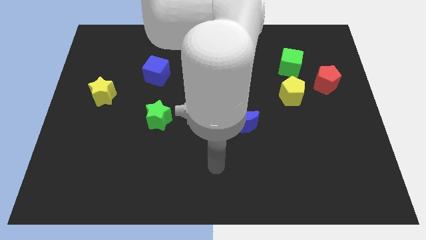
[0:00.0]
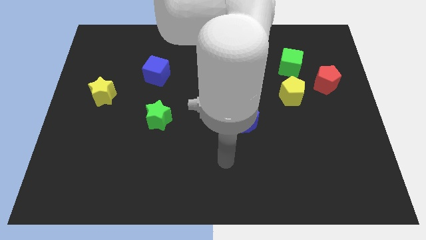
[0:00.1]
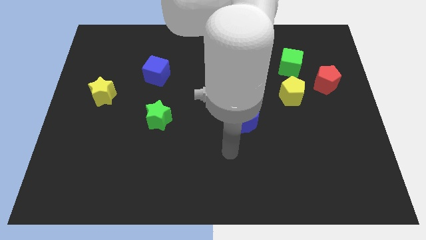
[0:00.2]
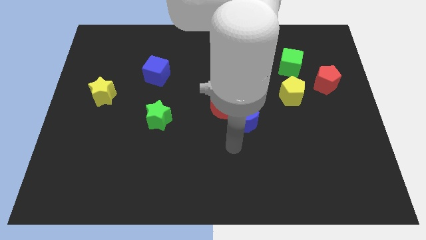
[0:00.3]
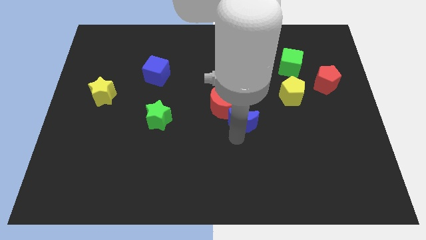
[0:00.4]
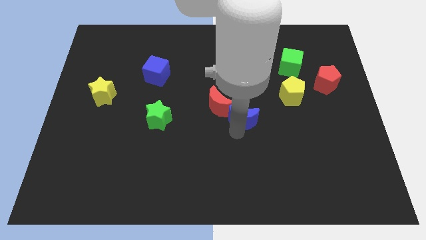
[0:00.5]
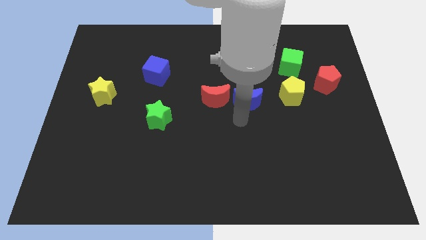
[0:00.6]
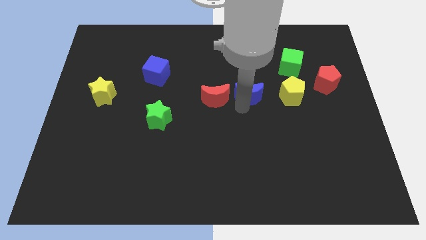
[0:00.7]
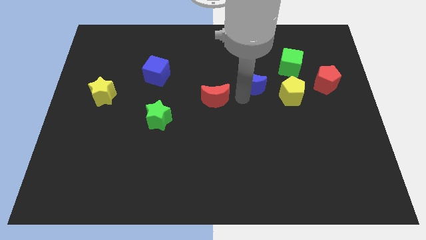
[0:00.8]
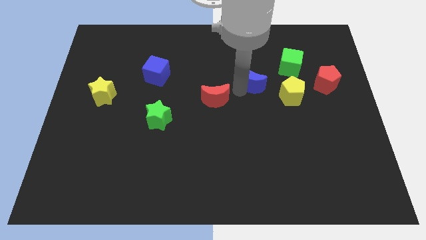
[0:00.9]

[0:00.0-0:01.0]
separate the red moon from the blue moon

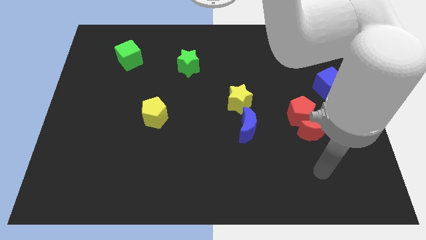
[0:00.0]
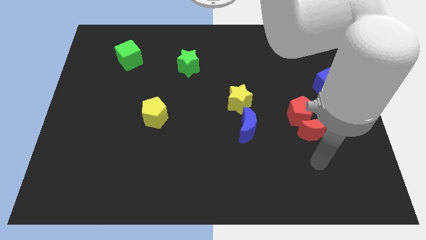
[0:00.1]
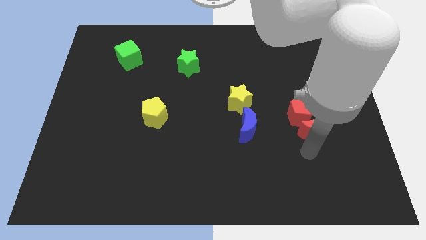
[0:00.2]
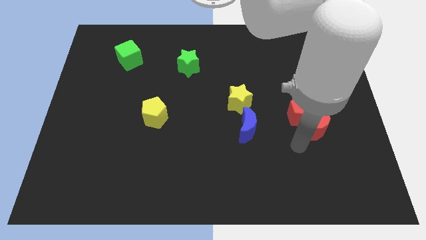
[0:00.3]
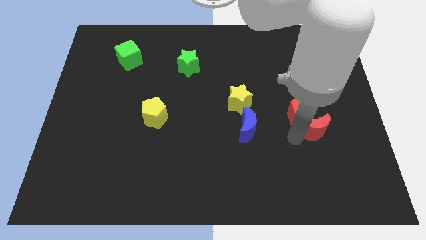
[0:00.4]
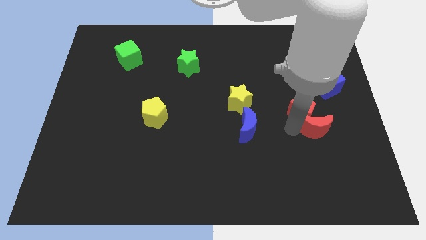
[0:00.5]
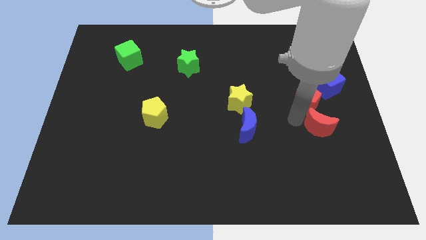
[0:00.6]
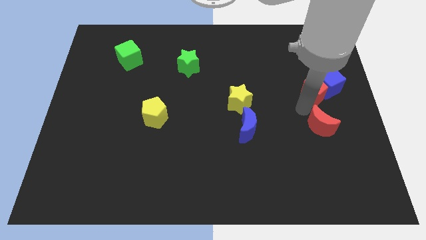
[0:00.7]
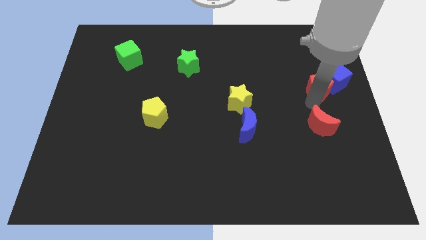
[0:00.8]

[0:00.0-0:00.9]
separate the red moon from the red pentagon

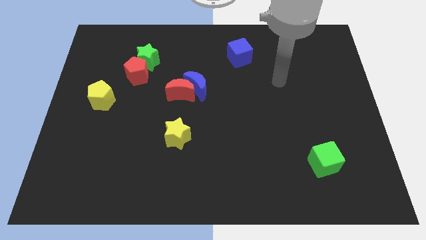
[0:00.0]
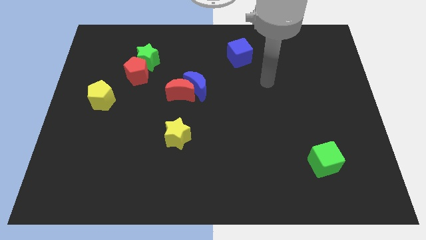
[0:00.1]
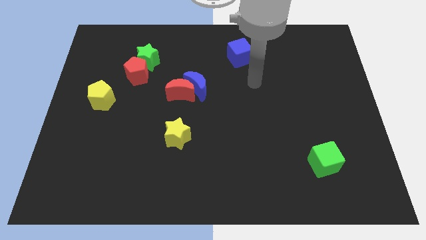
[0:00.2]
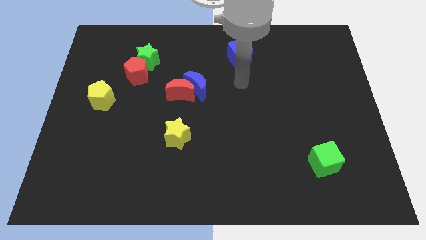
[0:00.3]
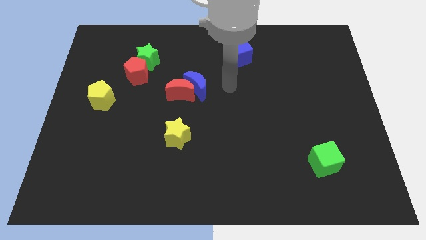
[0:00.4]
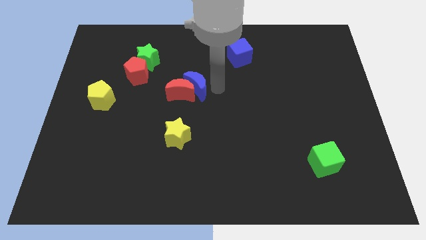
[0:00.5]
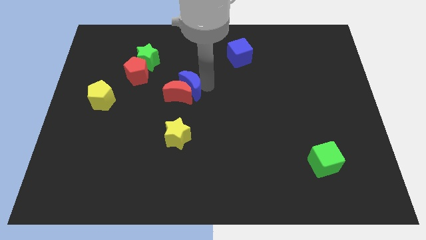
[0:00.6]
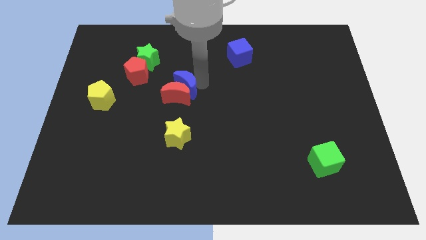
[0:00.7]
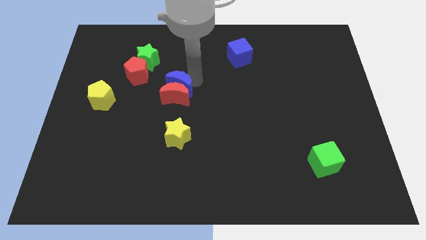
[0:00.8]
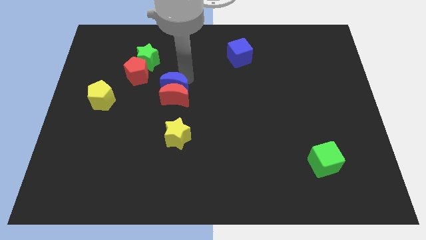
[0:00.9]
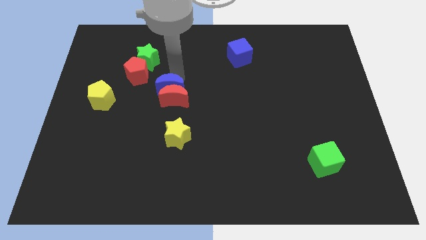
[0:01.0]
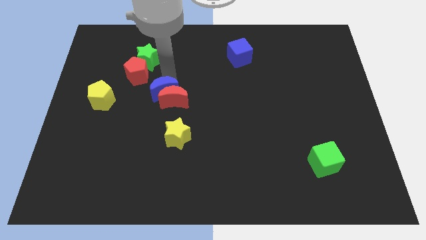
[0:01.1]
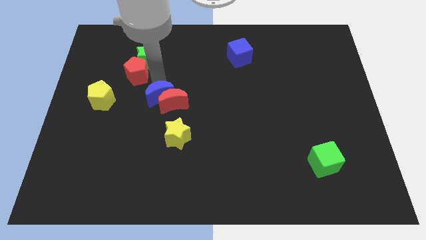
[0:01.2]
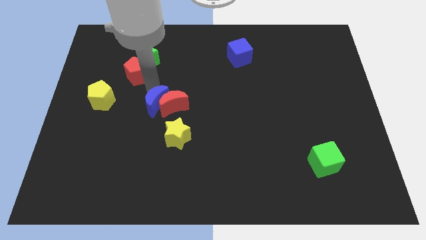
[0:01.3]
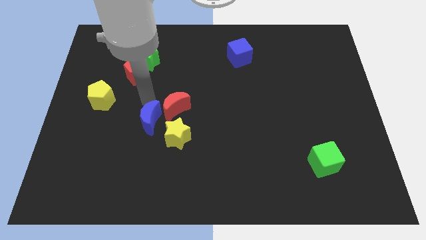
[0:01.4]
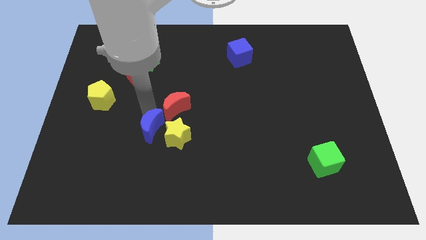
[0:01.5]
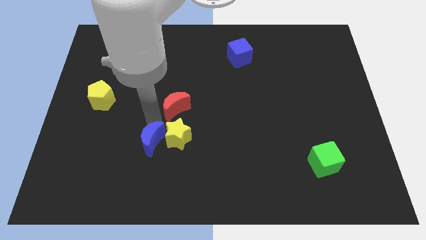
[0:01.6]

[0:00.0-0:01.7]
move the red moon away from the blue moon

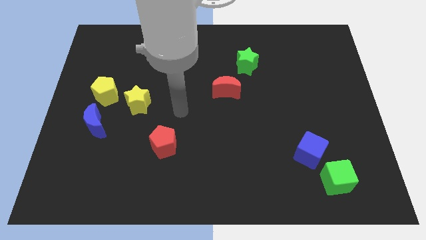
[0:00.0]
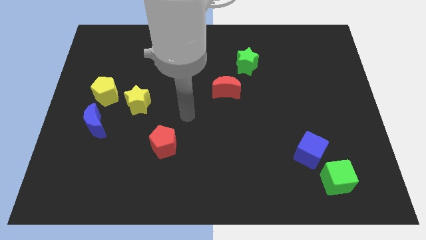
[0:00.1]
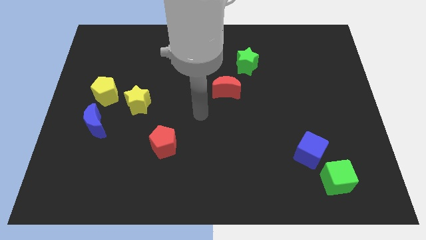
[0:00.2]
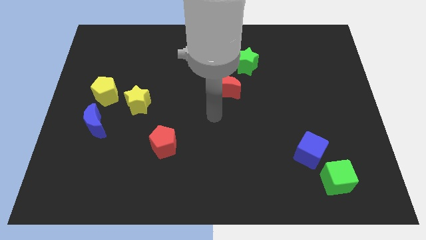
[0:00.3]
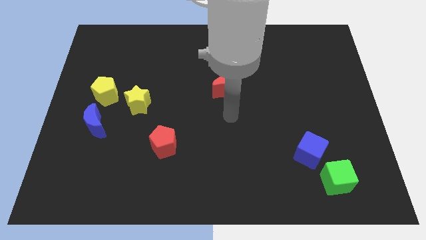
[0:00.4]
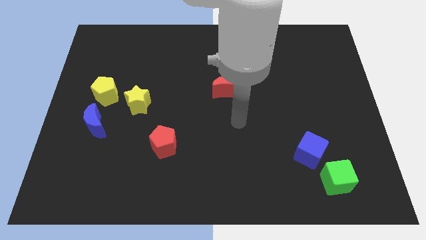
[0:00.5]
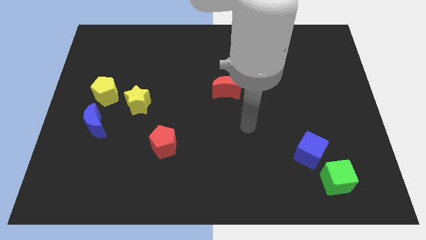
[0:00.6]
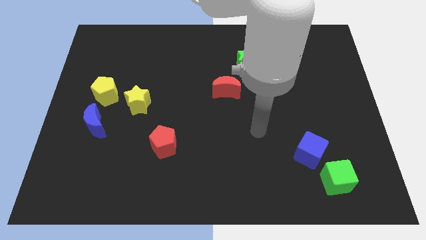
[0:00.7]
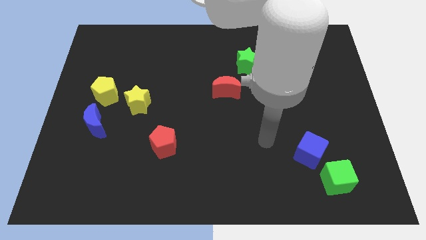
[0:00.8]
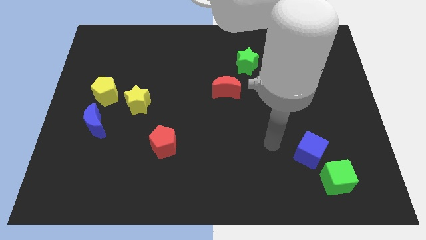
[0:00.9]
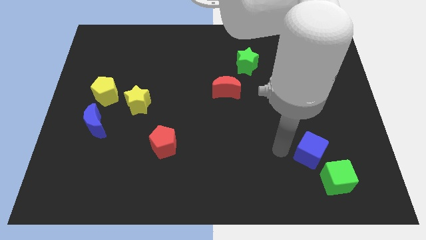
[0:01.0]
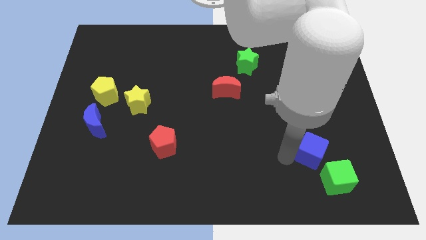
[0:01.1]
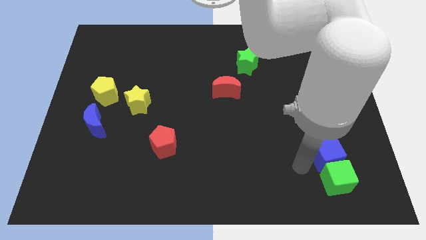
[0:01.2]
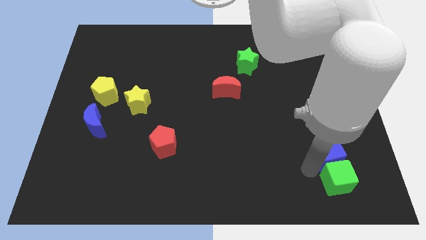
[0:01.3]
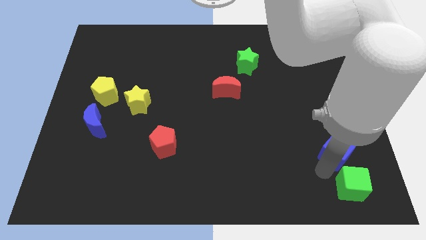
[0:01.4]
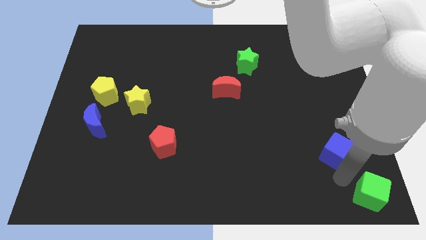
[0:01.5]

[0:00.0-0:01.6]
pull the blue cube apart from the green cube

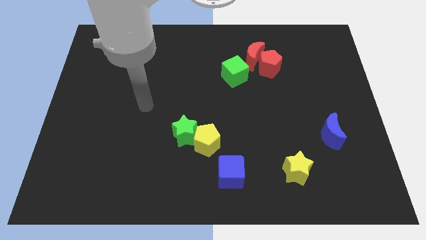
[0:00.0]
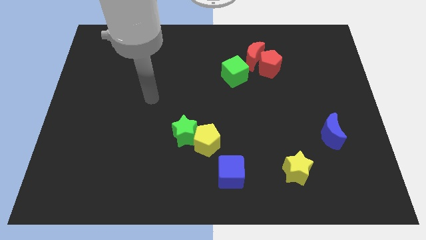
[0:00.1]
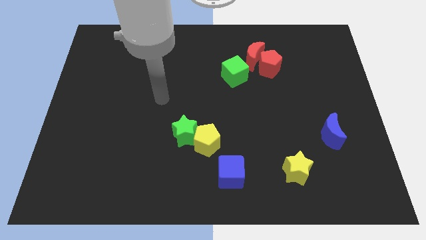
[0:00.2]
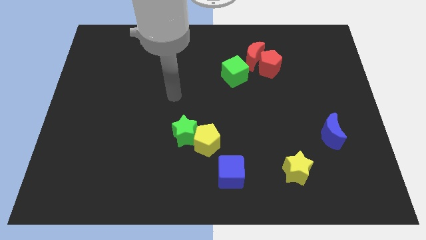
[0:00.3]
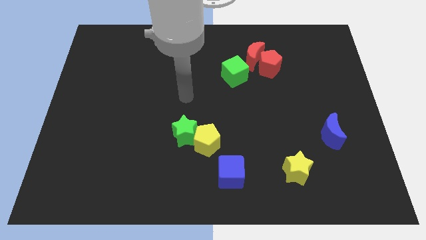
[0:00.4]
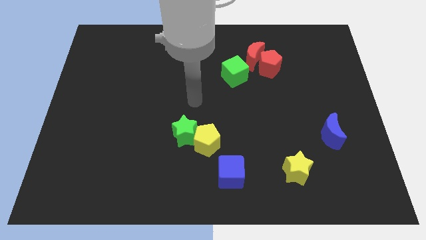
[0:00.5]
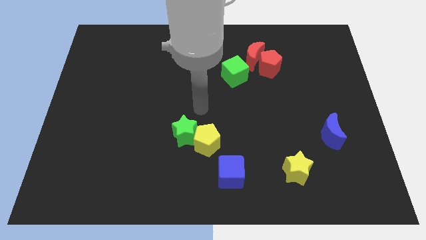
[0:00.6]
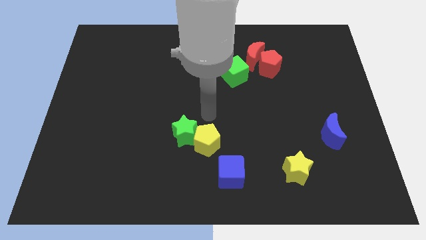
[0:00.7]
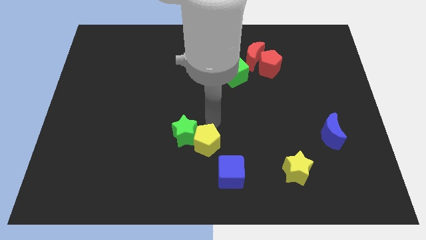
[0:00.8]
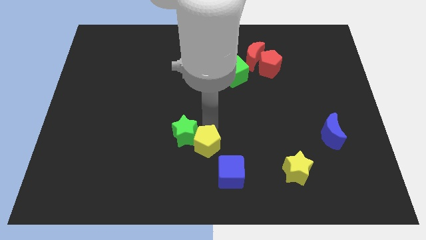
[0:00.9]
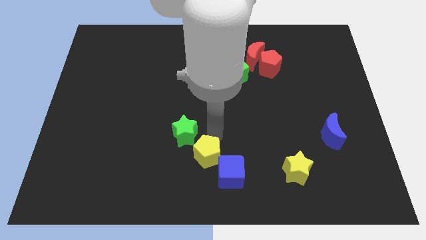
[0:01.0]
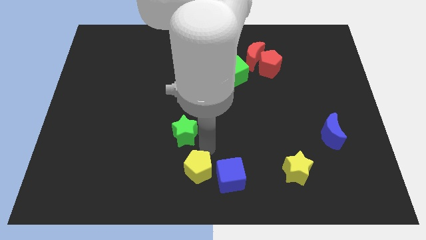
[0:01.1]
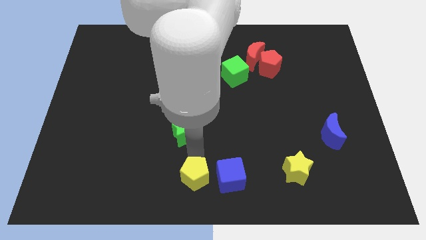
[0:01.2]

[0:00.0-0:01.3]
move the green star away from the yellow pentagon

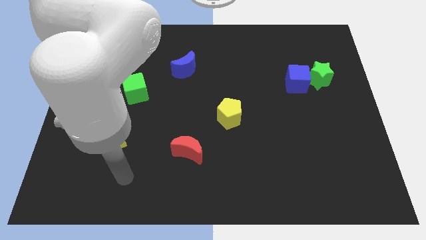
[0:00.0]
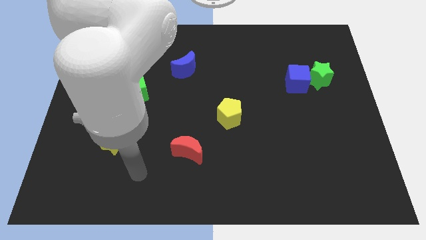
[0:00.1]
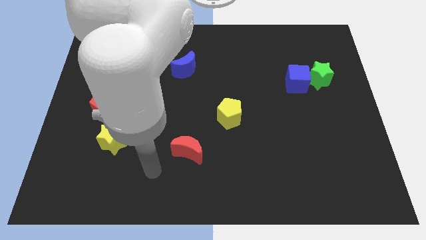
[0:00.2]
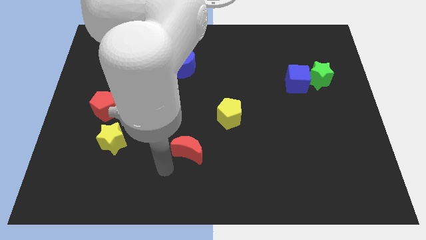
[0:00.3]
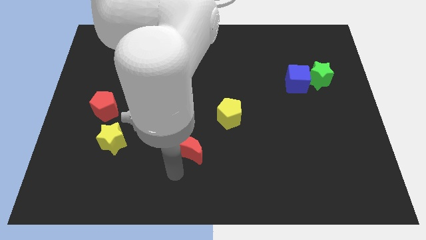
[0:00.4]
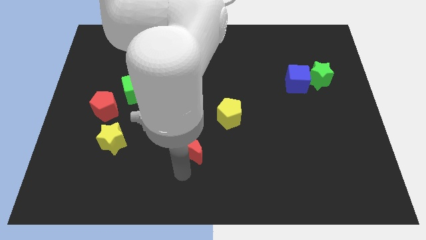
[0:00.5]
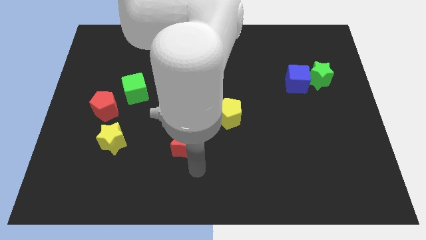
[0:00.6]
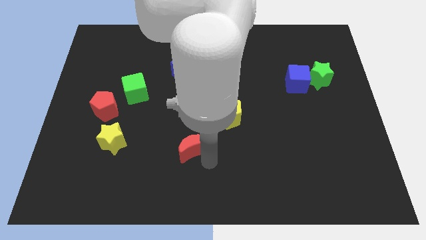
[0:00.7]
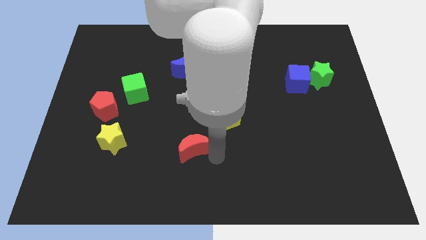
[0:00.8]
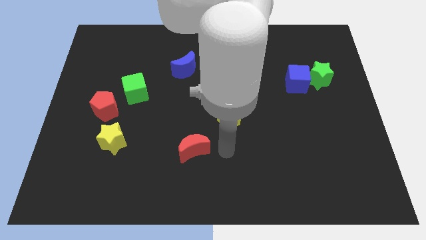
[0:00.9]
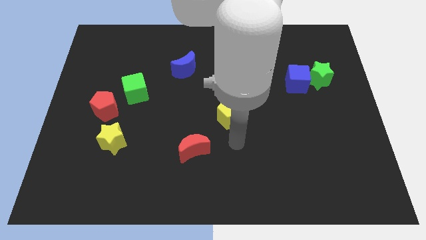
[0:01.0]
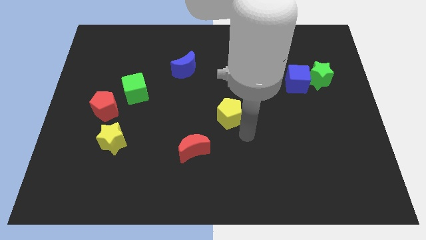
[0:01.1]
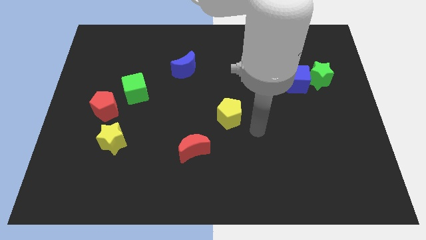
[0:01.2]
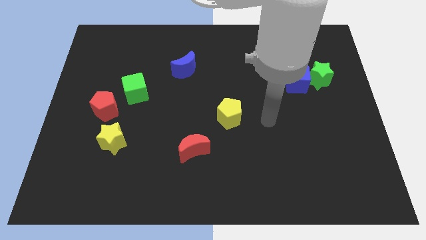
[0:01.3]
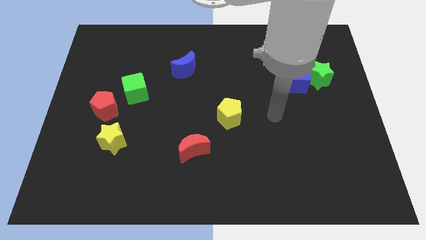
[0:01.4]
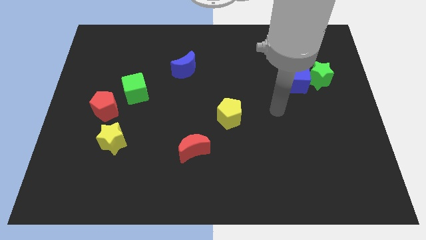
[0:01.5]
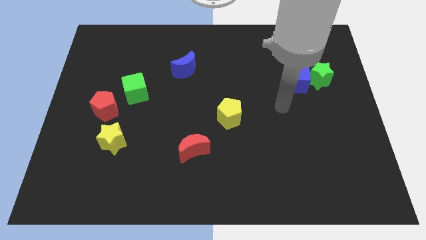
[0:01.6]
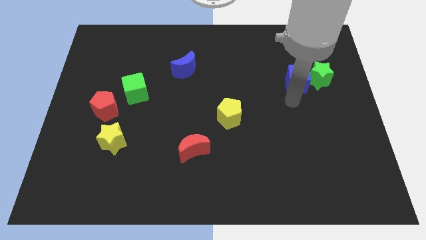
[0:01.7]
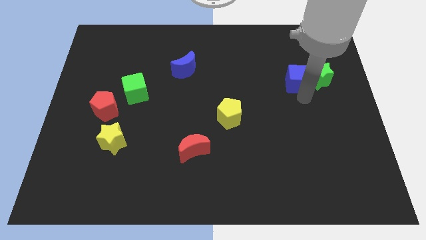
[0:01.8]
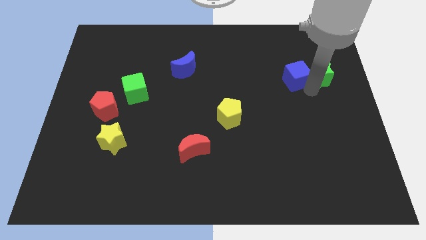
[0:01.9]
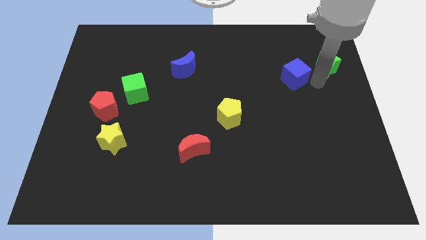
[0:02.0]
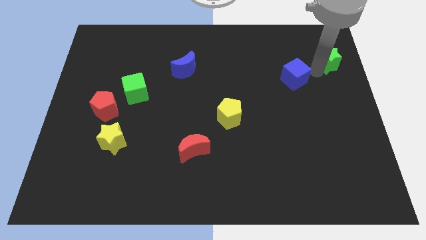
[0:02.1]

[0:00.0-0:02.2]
separate the blue cube from the green star

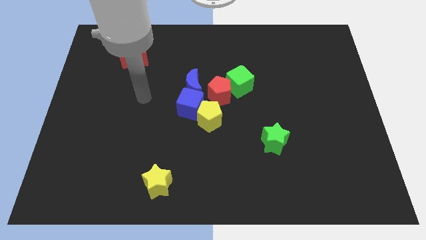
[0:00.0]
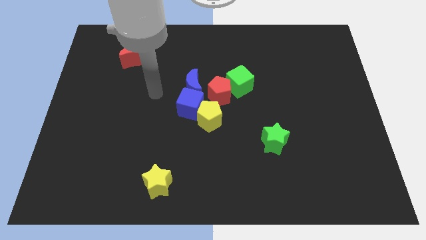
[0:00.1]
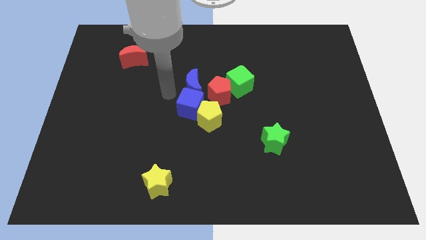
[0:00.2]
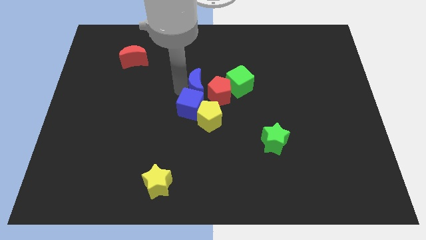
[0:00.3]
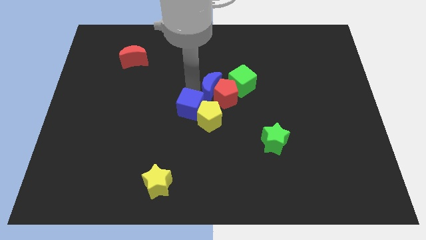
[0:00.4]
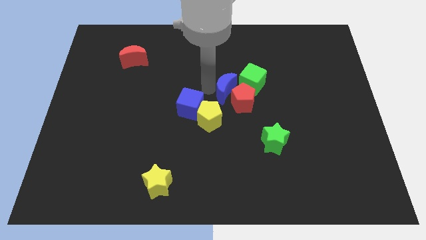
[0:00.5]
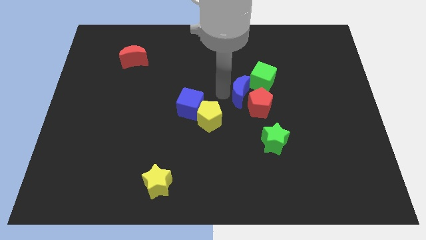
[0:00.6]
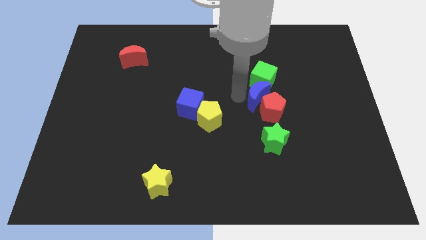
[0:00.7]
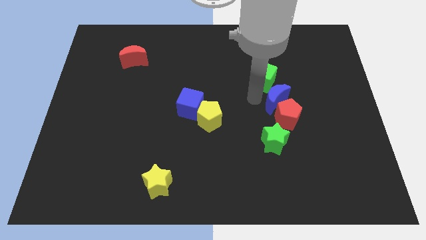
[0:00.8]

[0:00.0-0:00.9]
move the green cube away from the red pentagon
